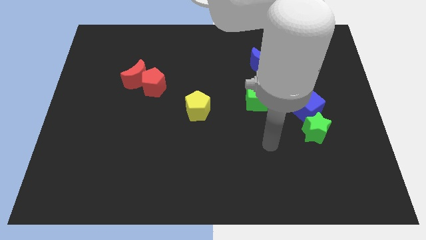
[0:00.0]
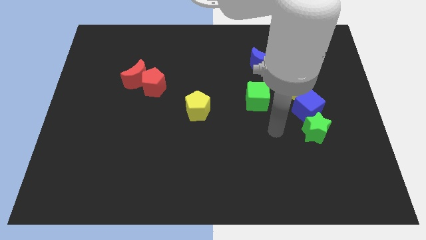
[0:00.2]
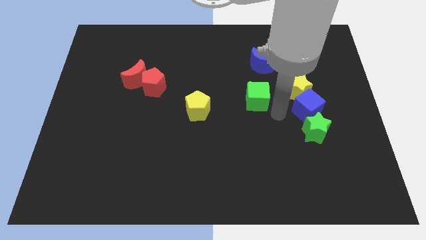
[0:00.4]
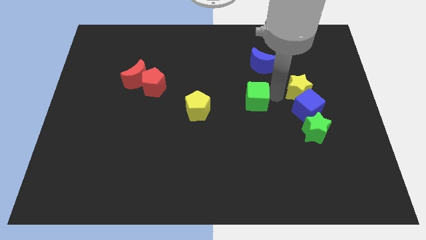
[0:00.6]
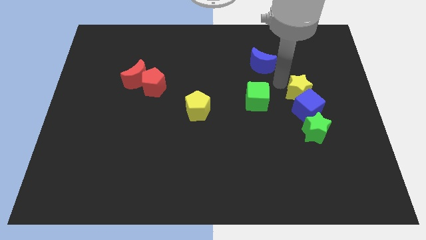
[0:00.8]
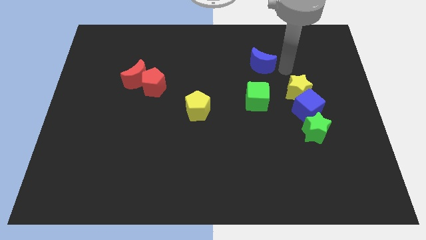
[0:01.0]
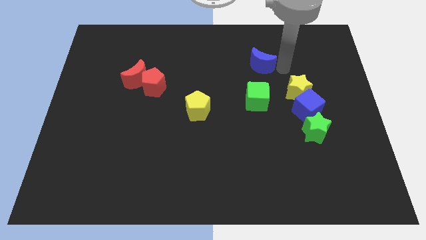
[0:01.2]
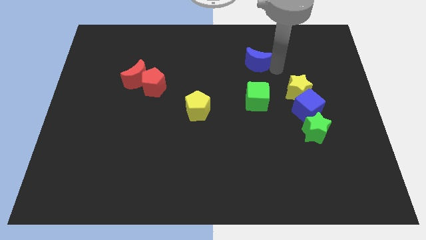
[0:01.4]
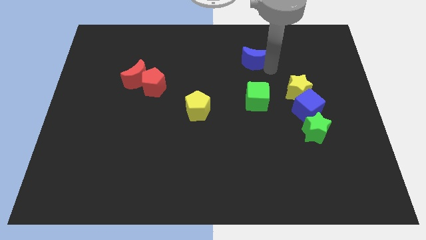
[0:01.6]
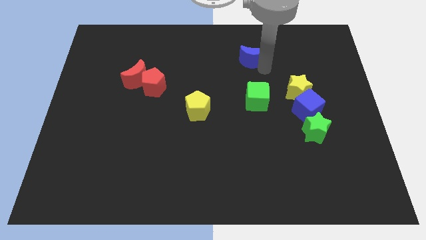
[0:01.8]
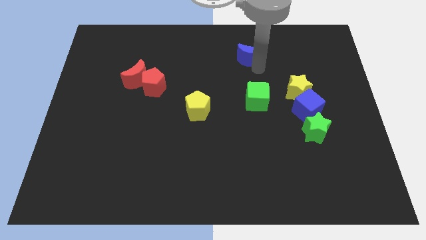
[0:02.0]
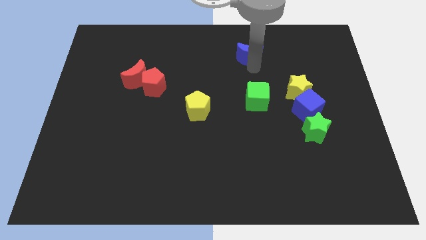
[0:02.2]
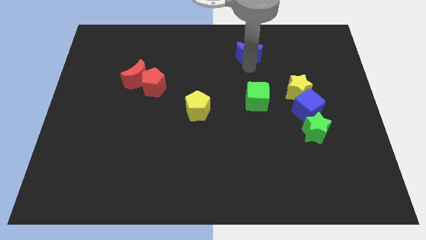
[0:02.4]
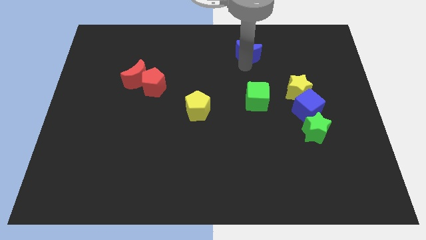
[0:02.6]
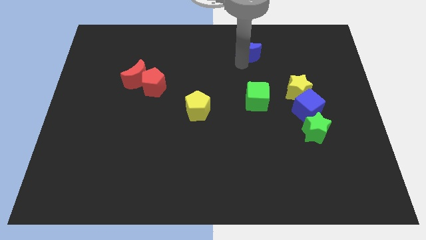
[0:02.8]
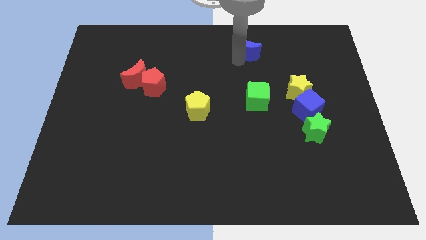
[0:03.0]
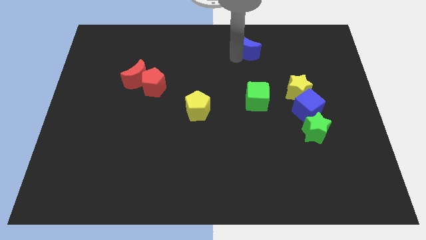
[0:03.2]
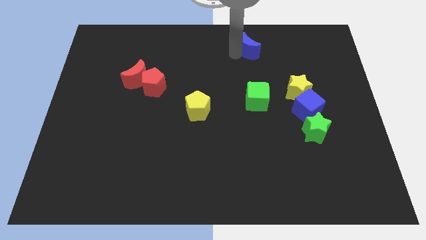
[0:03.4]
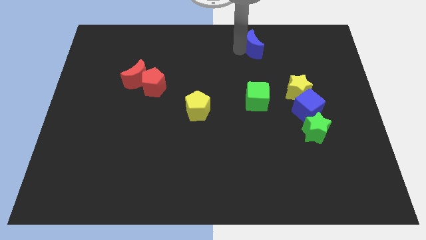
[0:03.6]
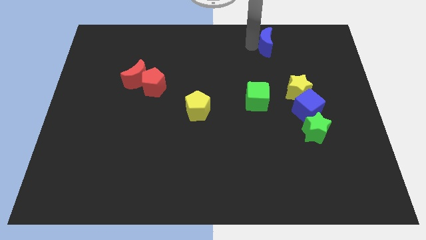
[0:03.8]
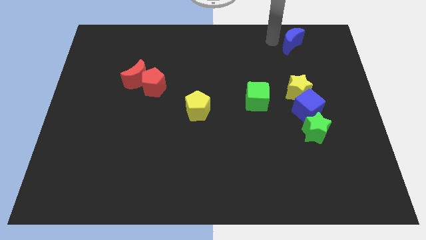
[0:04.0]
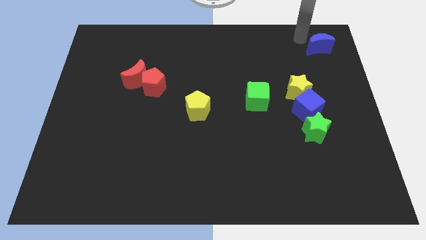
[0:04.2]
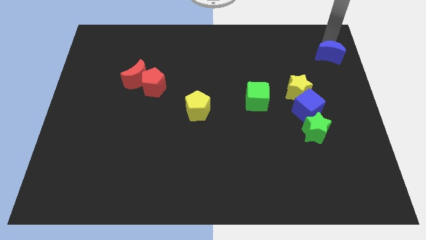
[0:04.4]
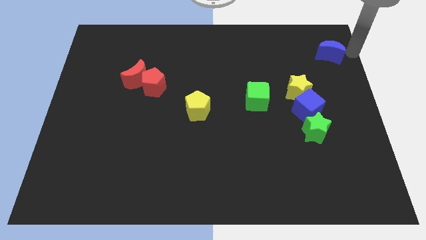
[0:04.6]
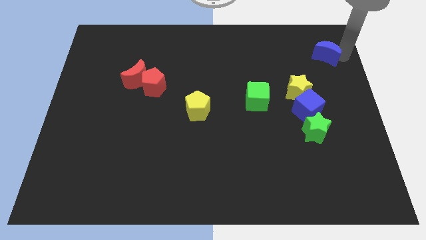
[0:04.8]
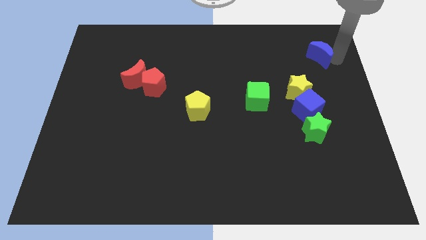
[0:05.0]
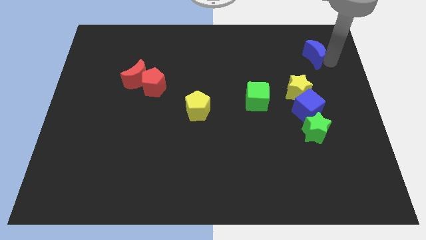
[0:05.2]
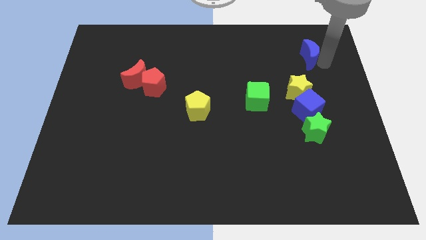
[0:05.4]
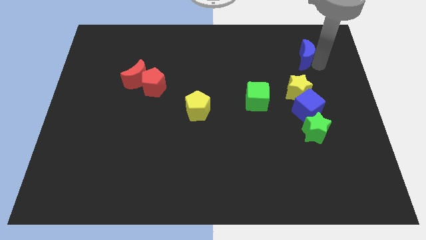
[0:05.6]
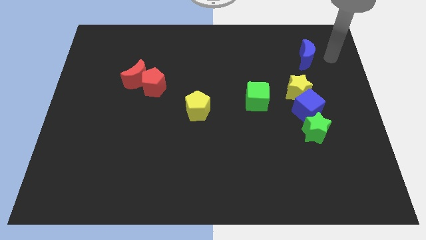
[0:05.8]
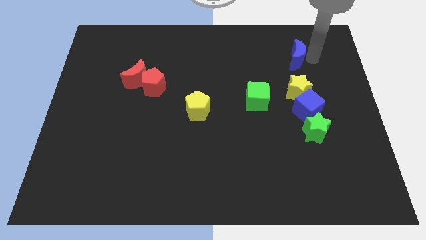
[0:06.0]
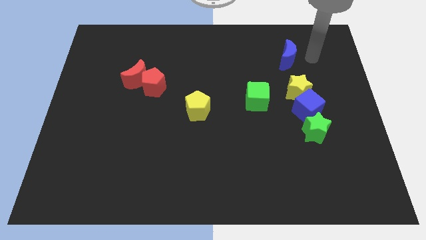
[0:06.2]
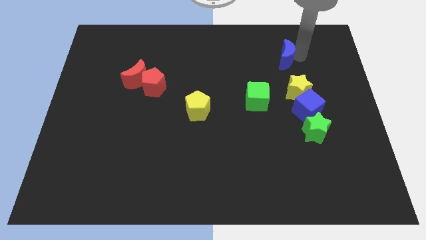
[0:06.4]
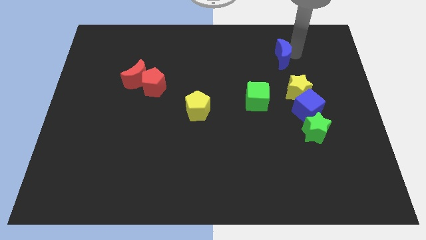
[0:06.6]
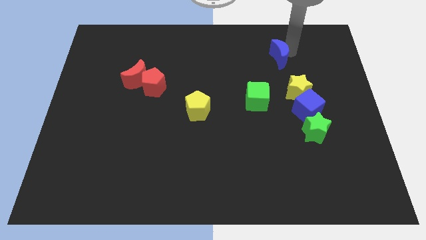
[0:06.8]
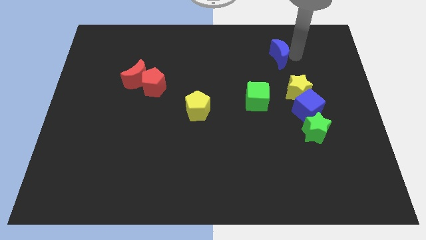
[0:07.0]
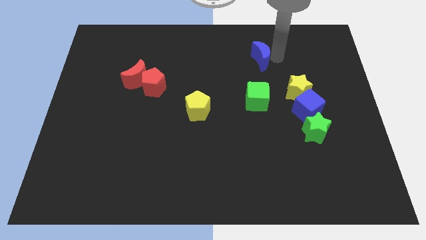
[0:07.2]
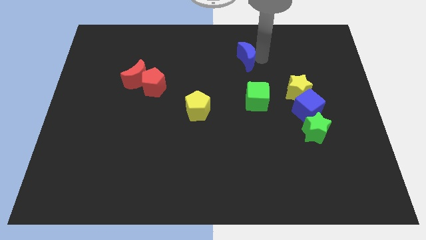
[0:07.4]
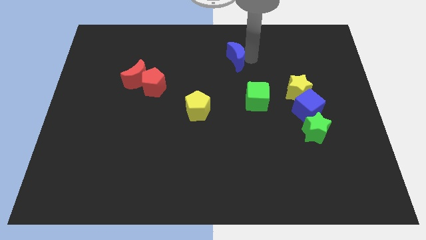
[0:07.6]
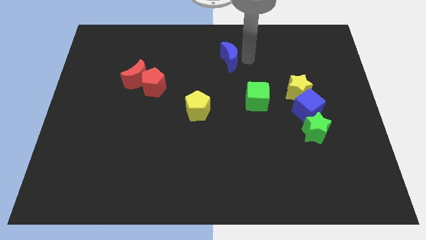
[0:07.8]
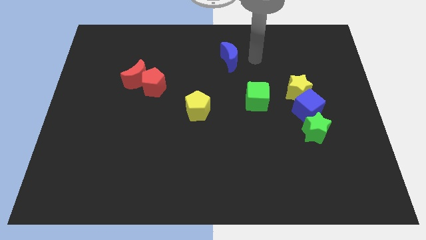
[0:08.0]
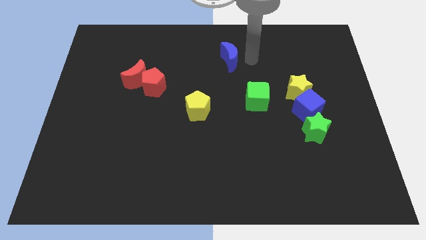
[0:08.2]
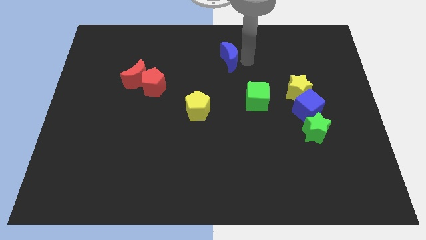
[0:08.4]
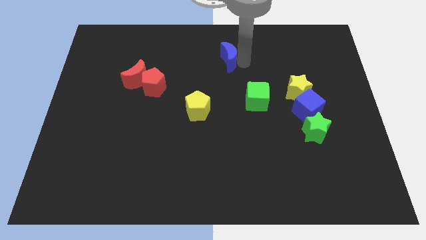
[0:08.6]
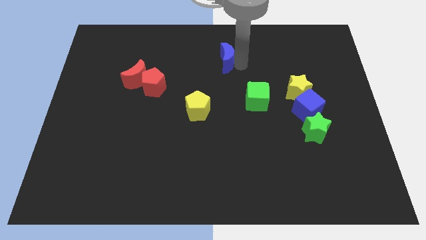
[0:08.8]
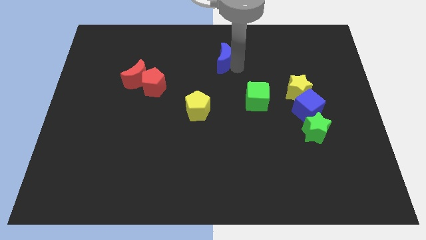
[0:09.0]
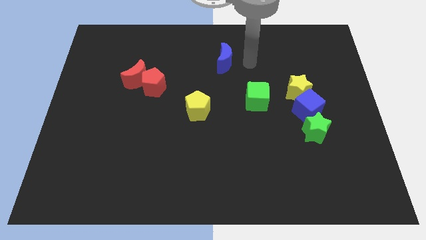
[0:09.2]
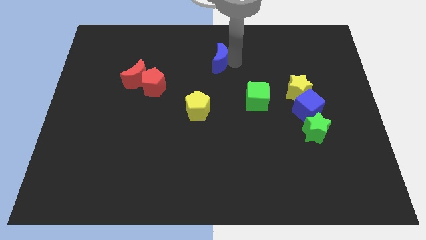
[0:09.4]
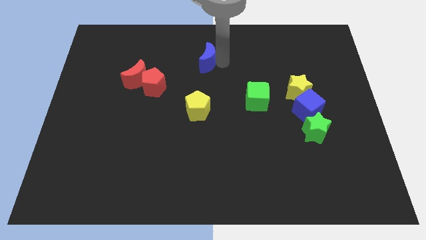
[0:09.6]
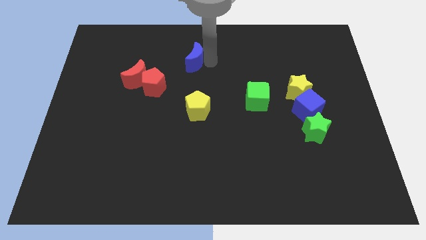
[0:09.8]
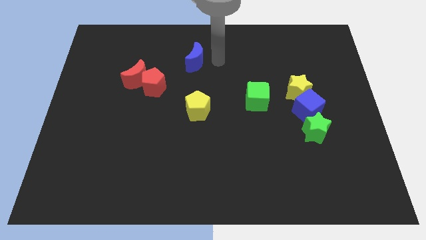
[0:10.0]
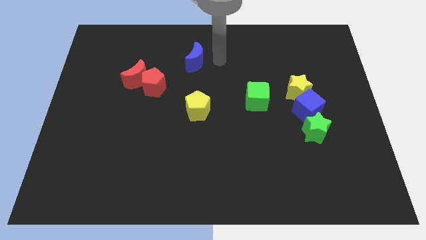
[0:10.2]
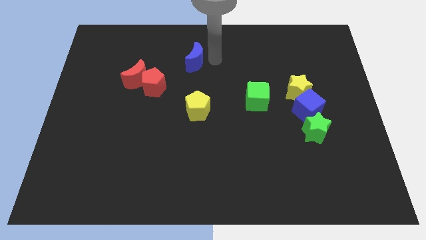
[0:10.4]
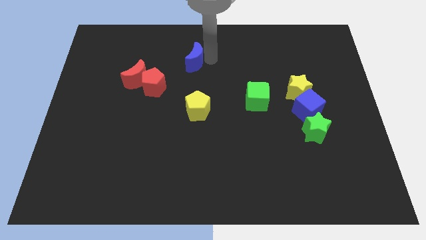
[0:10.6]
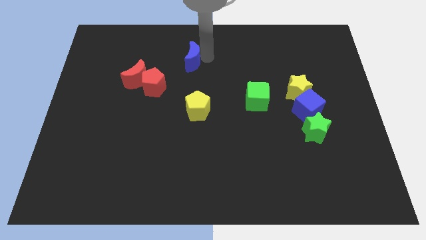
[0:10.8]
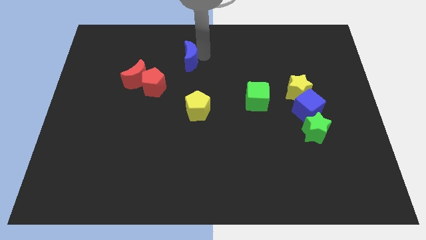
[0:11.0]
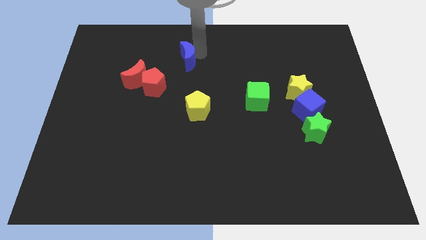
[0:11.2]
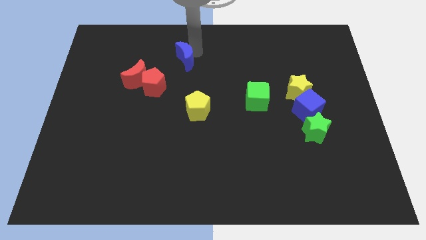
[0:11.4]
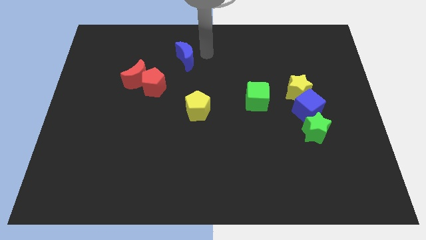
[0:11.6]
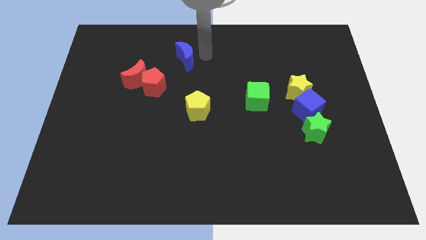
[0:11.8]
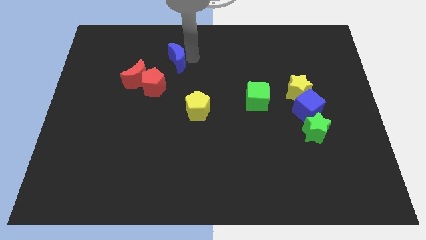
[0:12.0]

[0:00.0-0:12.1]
slide the blue moon to the left

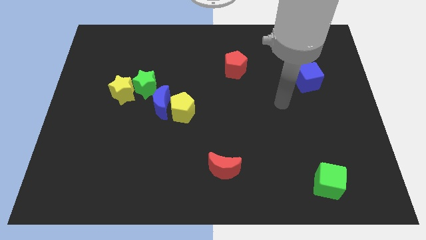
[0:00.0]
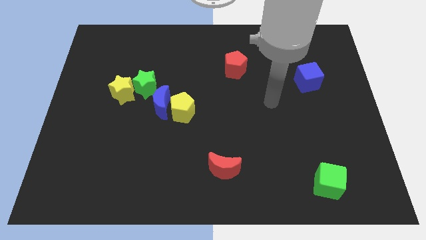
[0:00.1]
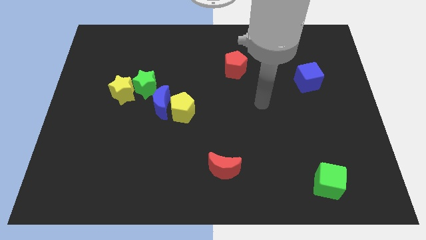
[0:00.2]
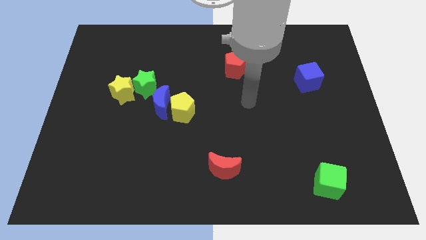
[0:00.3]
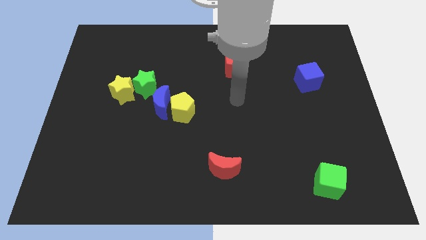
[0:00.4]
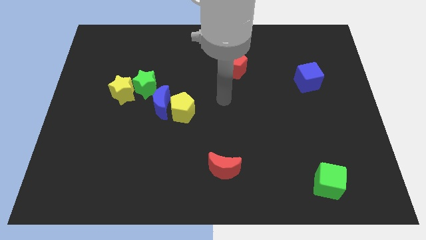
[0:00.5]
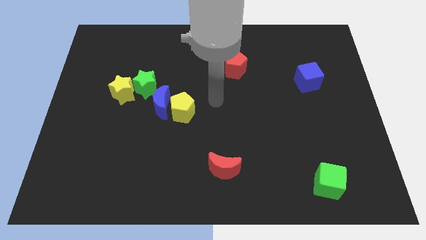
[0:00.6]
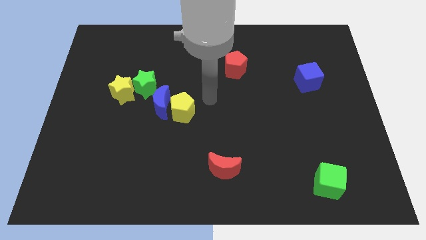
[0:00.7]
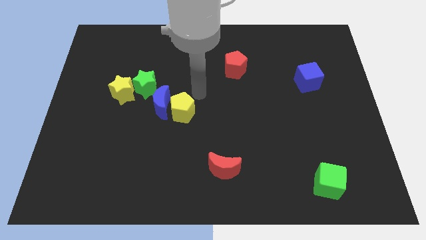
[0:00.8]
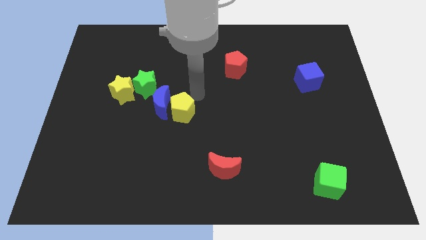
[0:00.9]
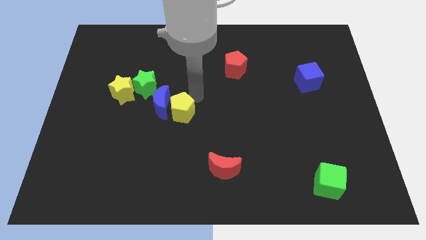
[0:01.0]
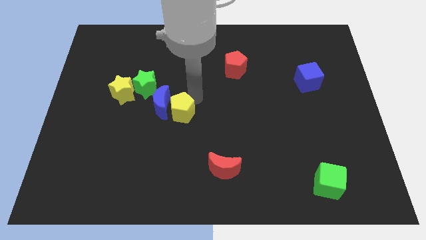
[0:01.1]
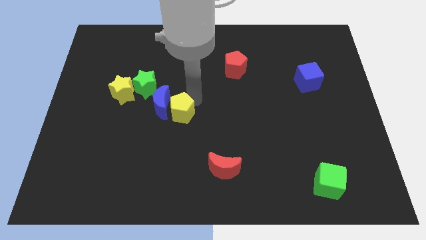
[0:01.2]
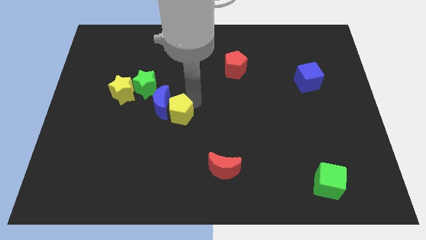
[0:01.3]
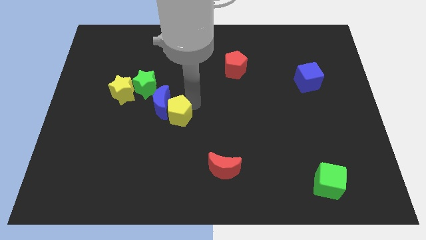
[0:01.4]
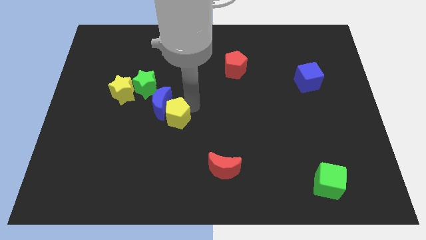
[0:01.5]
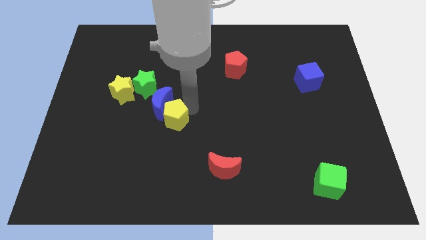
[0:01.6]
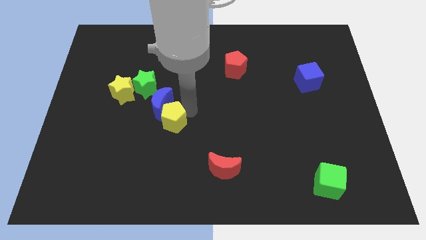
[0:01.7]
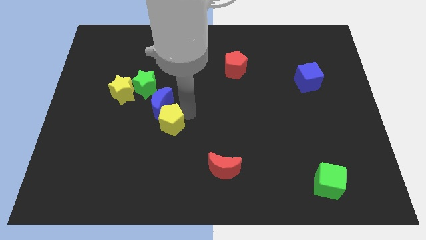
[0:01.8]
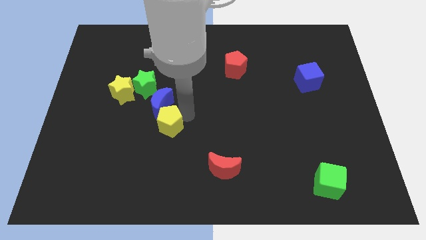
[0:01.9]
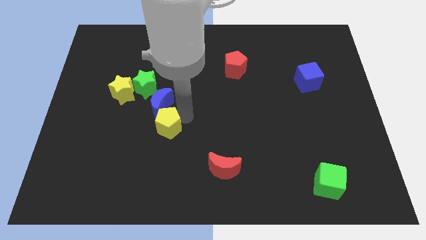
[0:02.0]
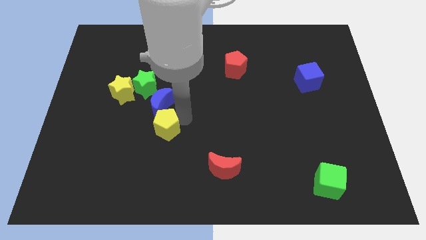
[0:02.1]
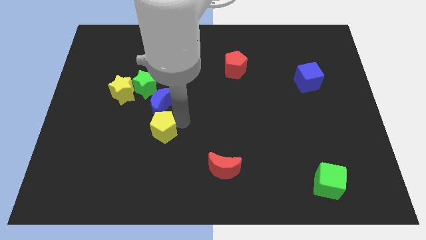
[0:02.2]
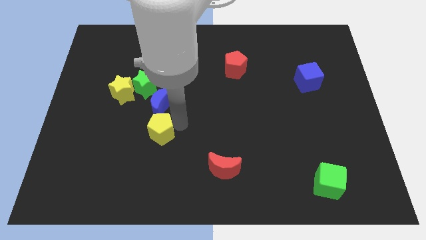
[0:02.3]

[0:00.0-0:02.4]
move the yellow pentagon diagonally downwards and left slightly
